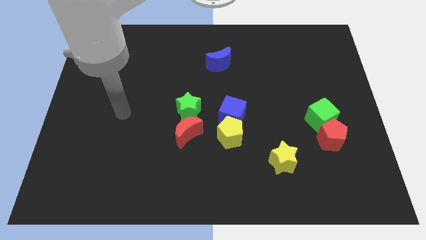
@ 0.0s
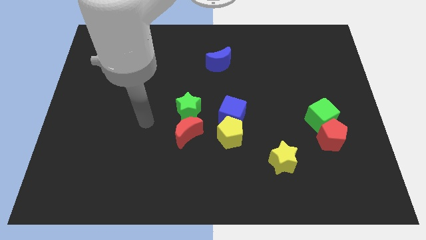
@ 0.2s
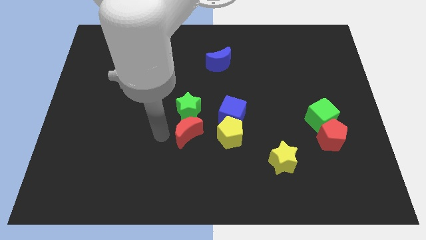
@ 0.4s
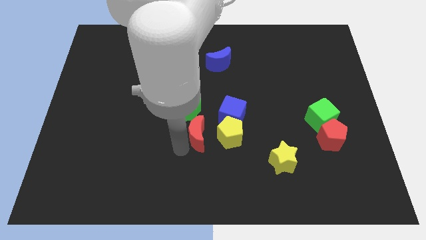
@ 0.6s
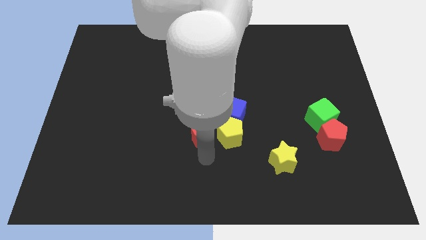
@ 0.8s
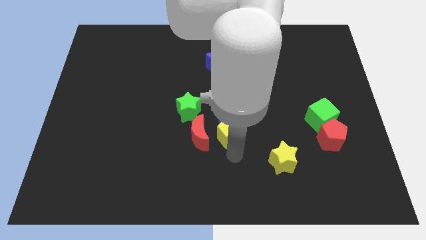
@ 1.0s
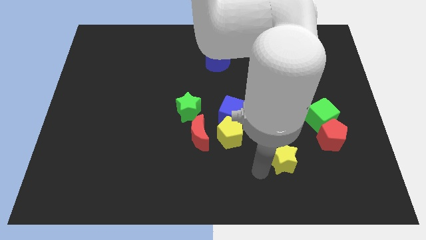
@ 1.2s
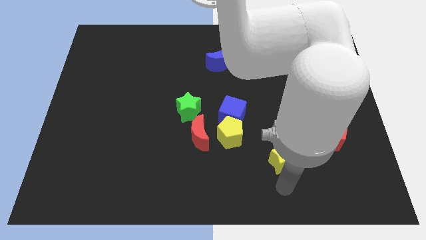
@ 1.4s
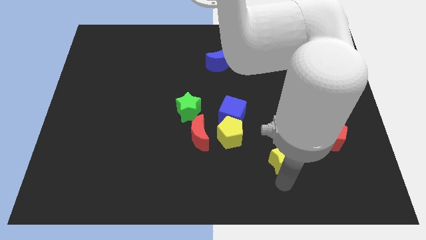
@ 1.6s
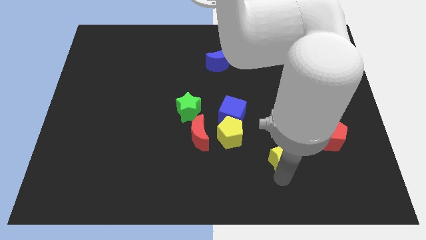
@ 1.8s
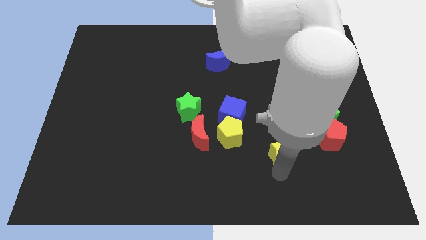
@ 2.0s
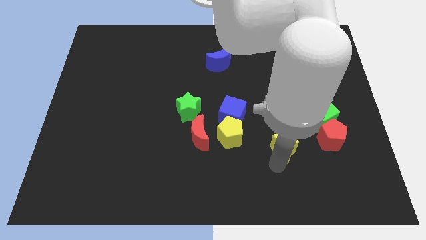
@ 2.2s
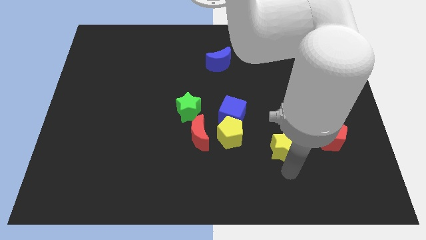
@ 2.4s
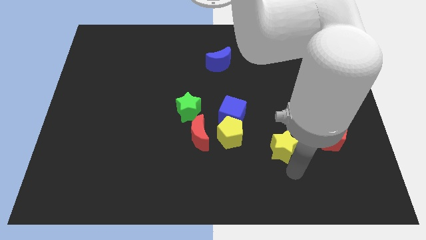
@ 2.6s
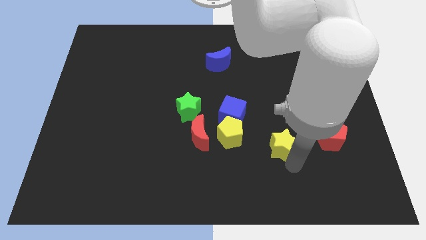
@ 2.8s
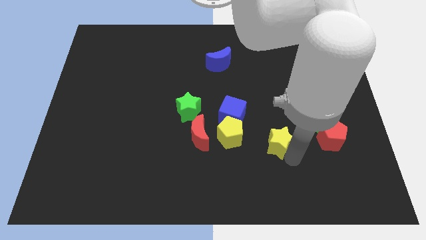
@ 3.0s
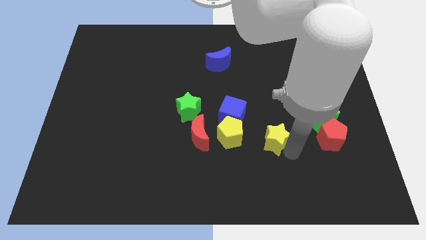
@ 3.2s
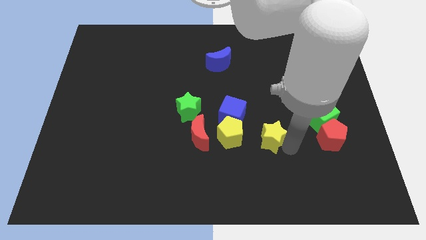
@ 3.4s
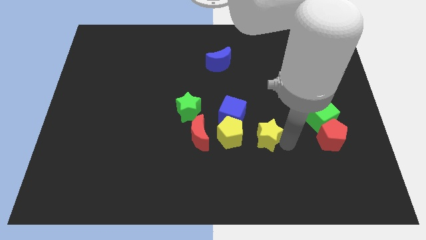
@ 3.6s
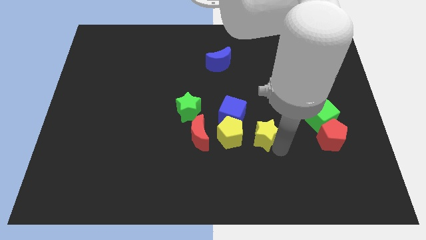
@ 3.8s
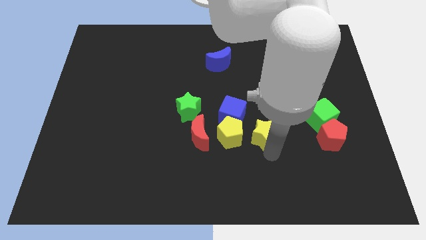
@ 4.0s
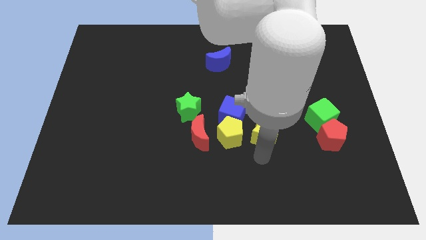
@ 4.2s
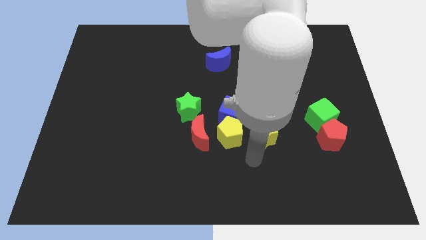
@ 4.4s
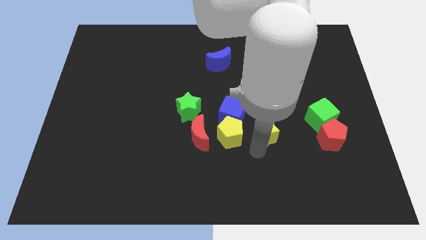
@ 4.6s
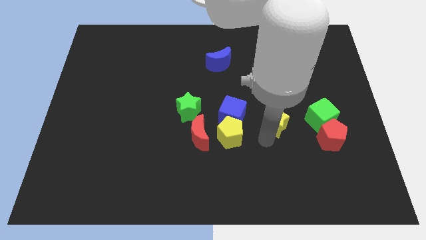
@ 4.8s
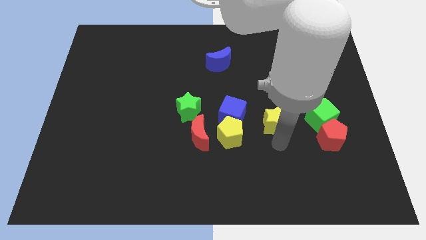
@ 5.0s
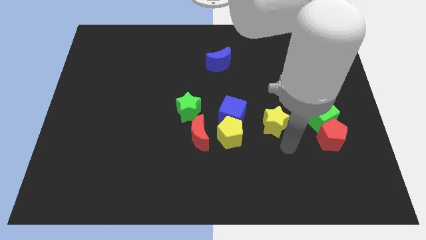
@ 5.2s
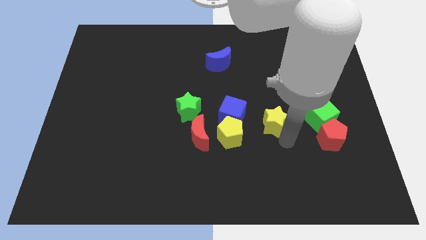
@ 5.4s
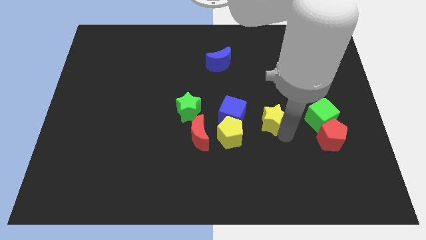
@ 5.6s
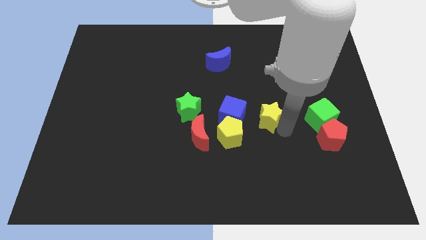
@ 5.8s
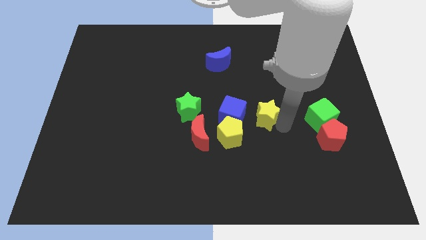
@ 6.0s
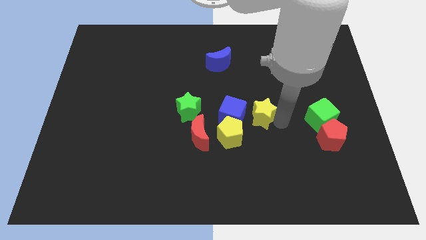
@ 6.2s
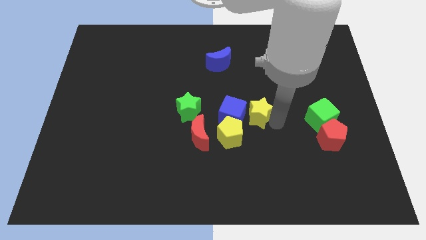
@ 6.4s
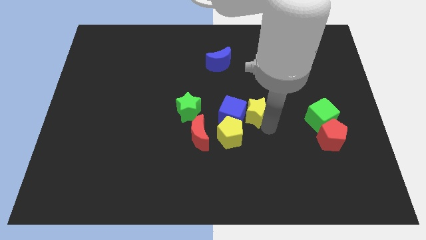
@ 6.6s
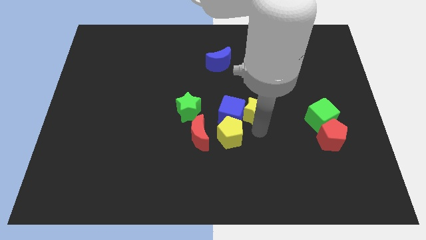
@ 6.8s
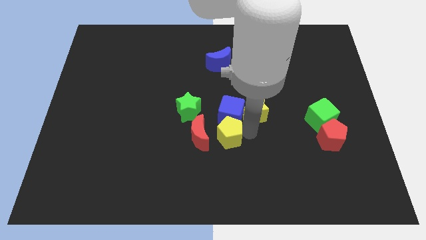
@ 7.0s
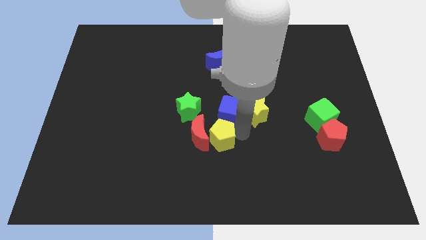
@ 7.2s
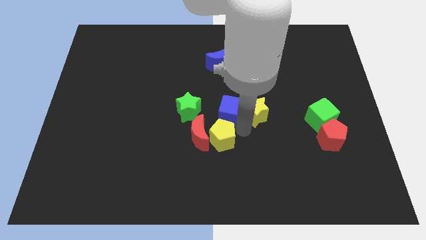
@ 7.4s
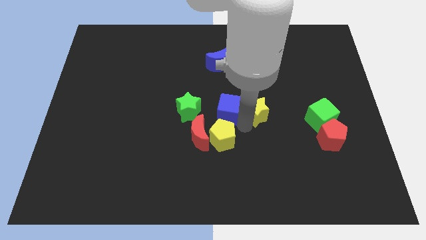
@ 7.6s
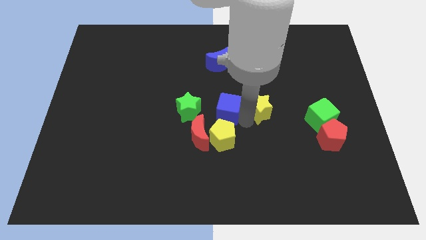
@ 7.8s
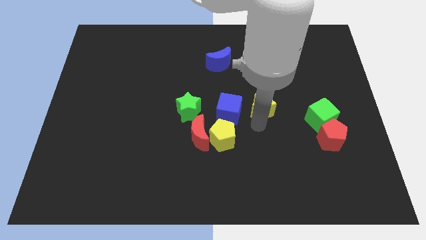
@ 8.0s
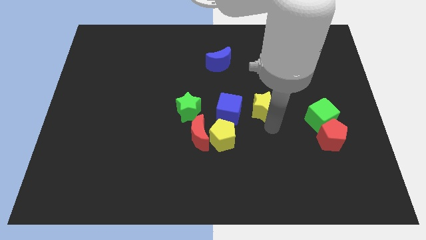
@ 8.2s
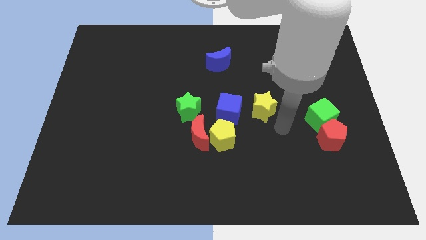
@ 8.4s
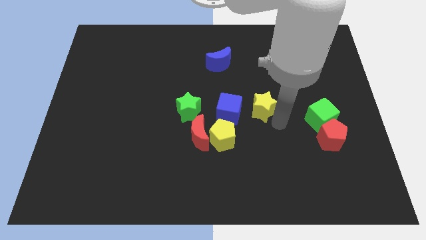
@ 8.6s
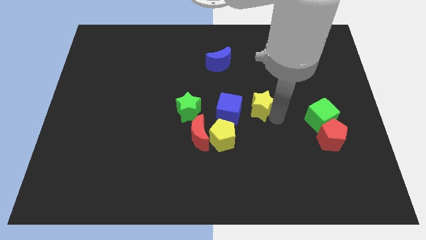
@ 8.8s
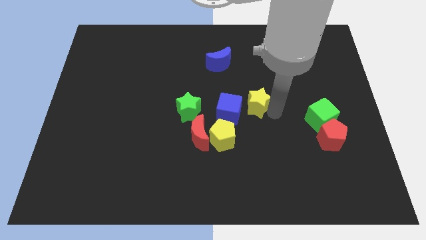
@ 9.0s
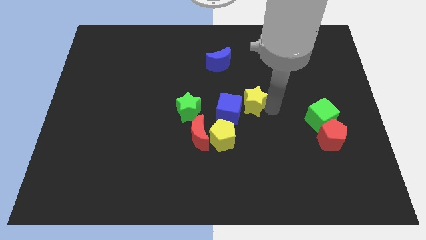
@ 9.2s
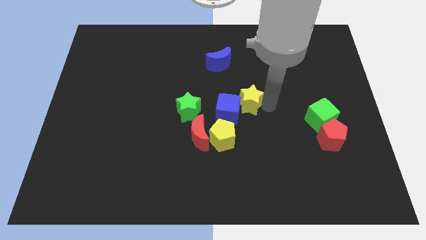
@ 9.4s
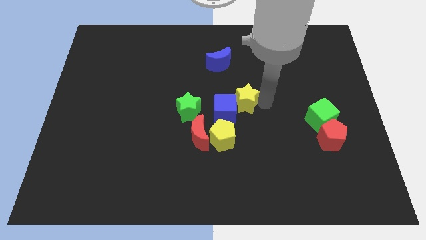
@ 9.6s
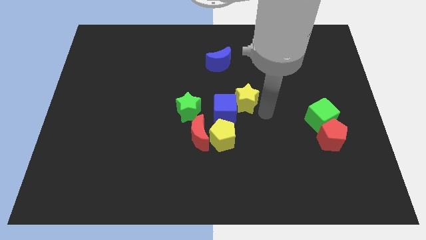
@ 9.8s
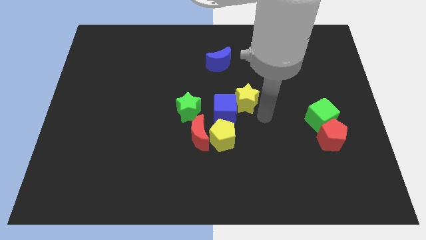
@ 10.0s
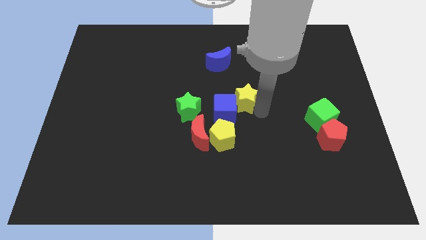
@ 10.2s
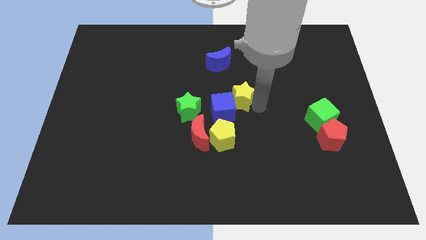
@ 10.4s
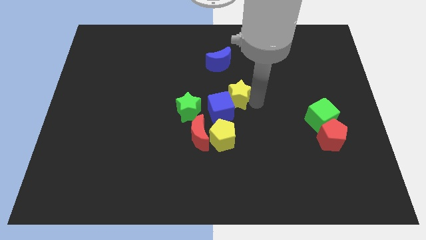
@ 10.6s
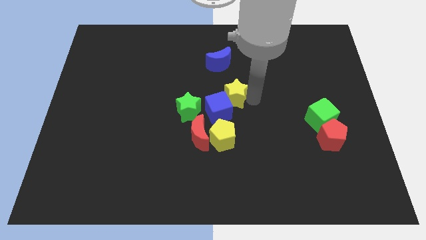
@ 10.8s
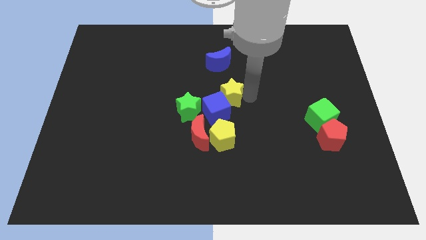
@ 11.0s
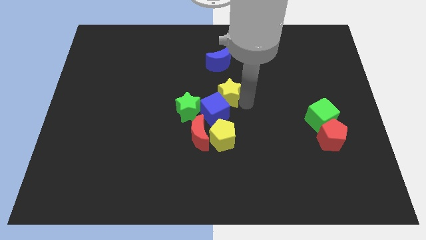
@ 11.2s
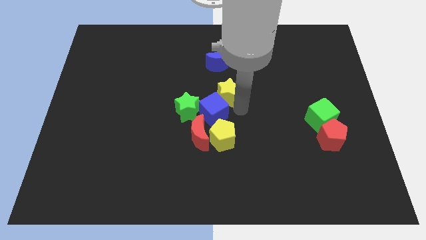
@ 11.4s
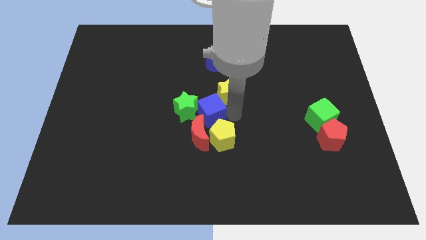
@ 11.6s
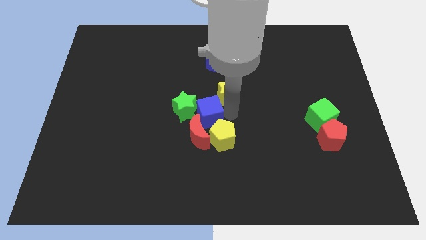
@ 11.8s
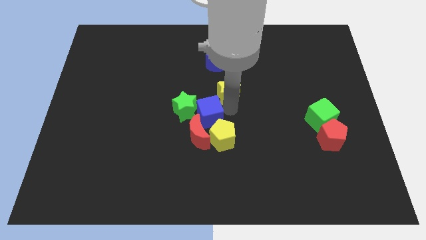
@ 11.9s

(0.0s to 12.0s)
move the yellow star up and then to the left

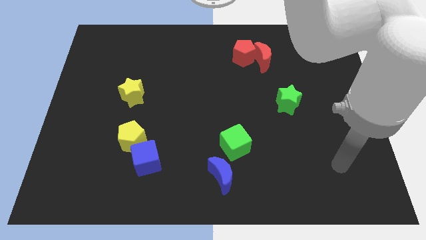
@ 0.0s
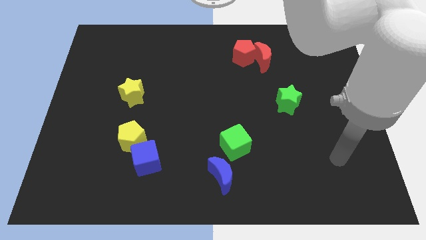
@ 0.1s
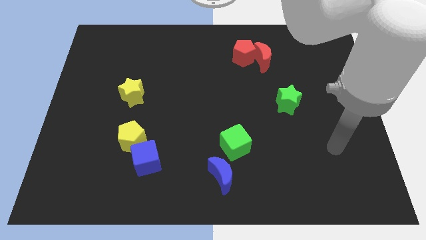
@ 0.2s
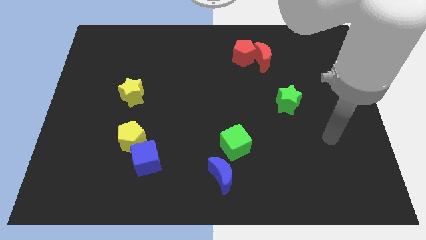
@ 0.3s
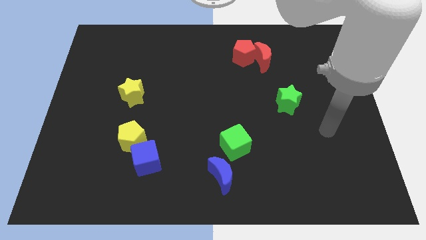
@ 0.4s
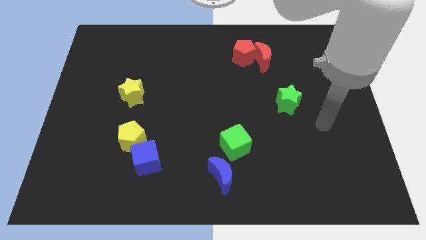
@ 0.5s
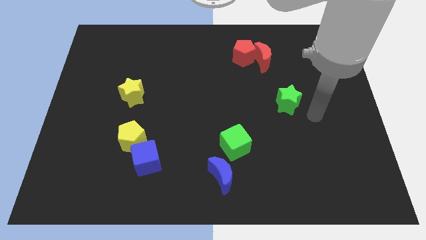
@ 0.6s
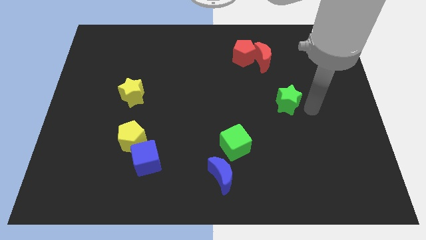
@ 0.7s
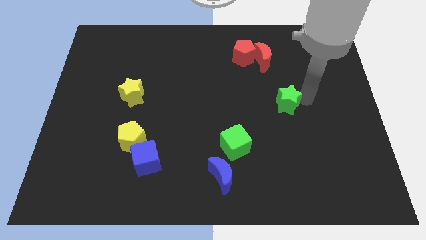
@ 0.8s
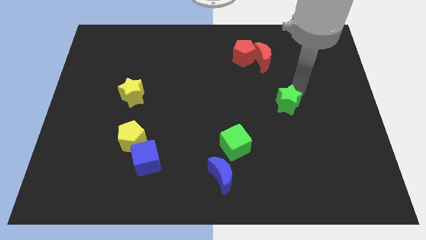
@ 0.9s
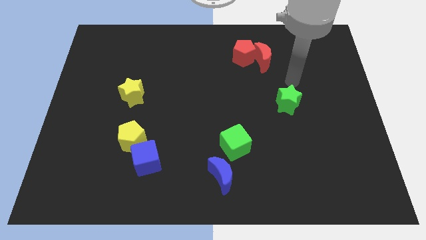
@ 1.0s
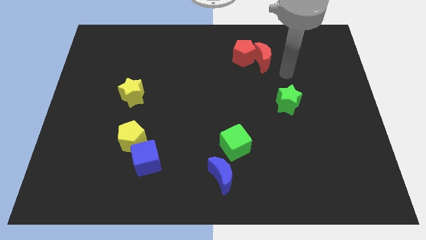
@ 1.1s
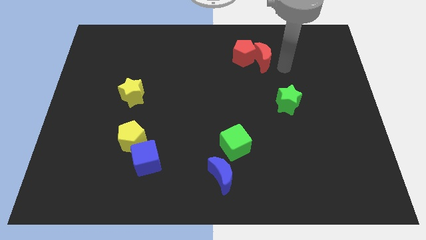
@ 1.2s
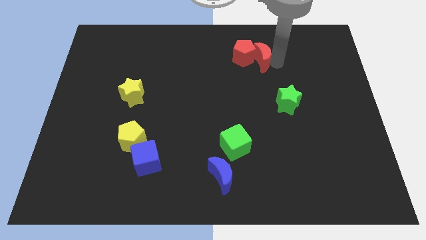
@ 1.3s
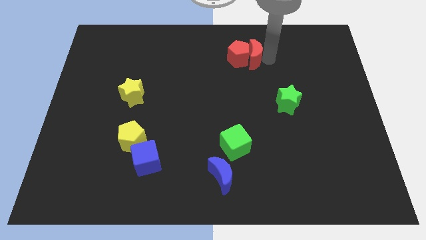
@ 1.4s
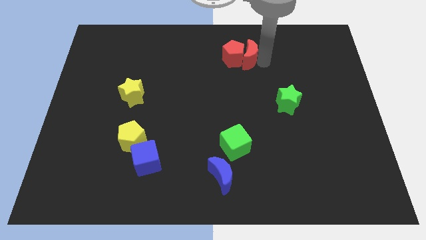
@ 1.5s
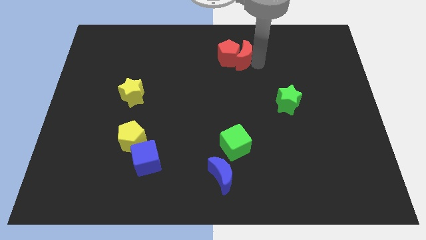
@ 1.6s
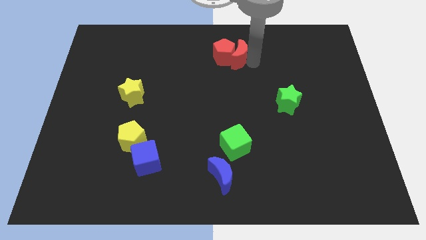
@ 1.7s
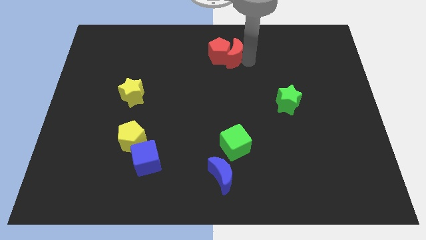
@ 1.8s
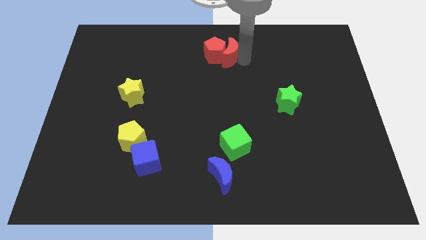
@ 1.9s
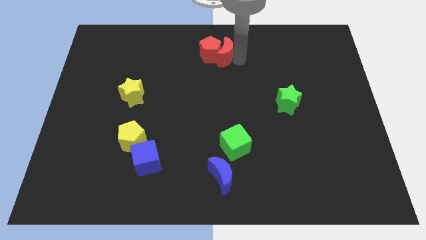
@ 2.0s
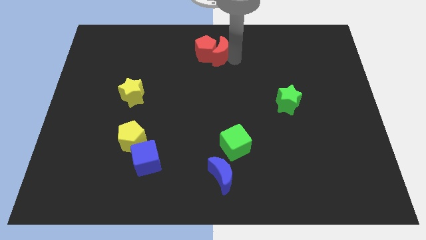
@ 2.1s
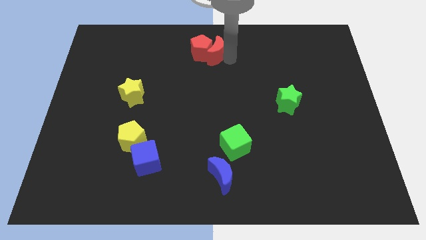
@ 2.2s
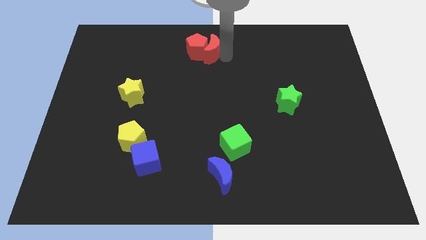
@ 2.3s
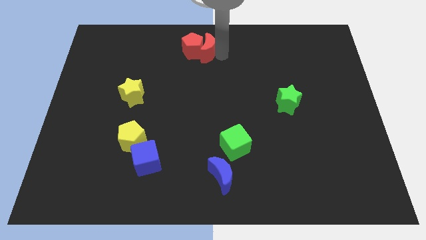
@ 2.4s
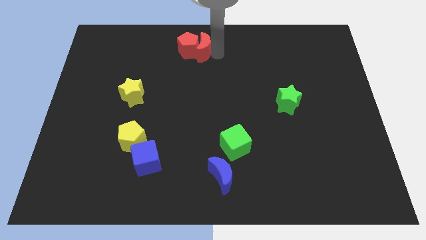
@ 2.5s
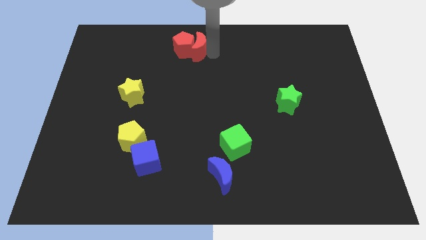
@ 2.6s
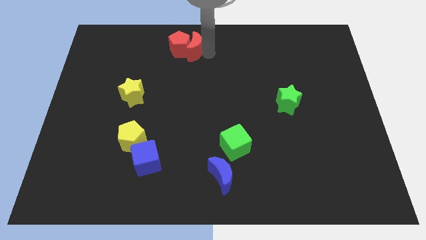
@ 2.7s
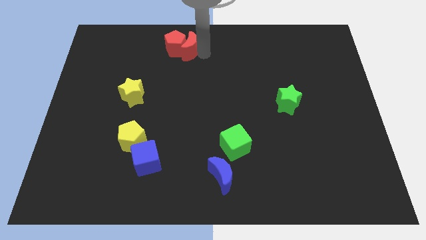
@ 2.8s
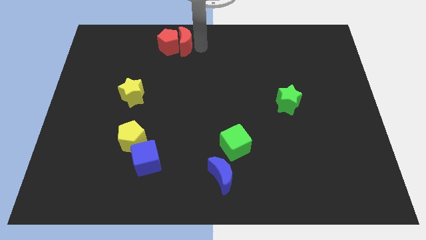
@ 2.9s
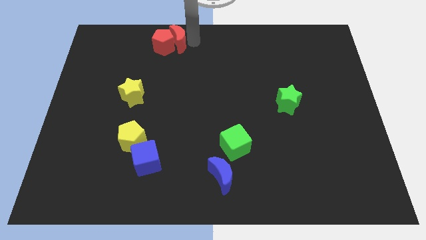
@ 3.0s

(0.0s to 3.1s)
push the red pentagon left
